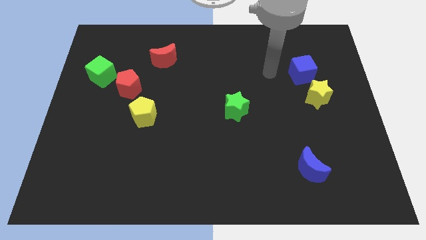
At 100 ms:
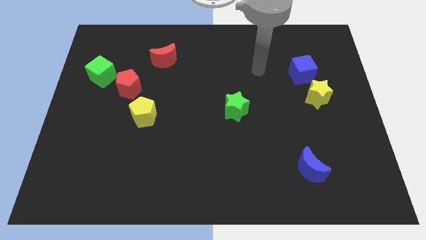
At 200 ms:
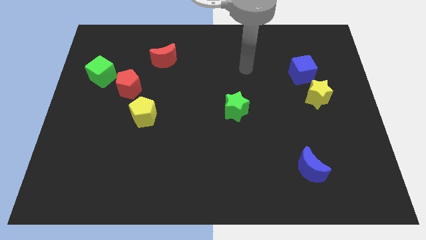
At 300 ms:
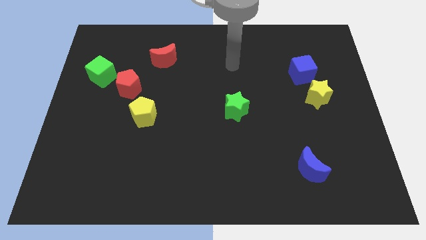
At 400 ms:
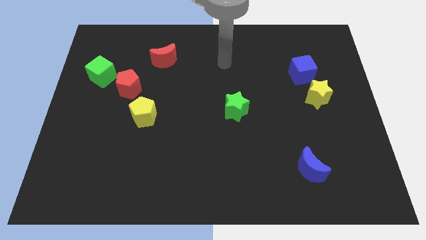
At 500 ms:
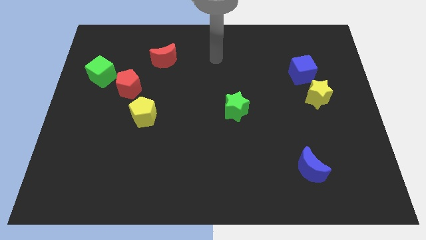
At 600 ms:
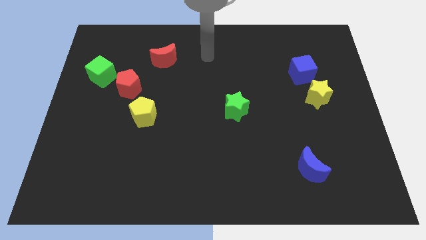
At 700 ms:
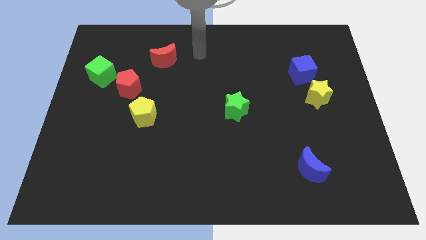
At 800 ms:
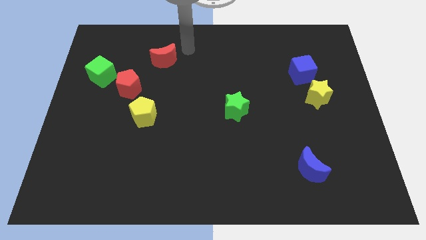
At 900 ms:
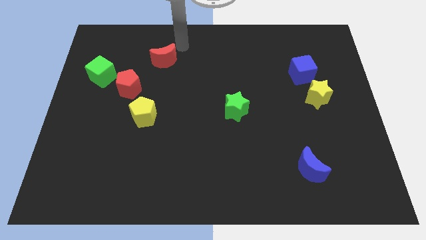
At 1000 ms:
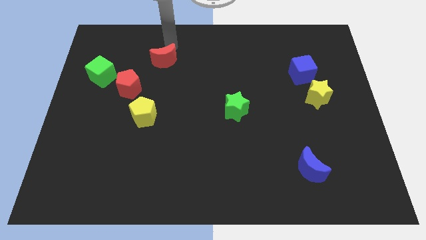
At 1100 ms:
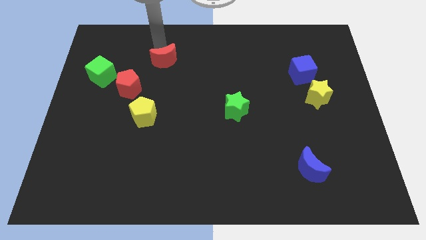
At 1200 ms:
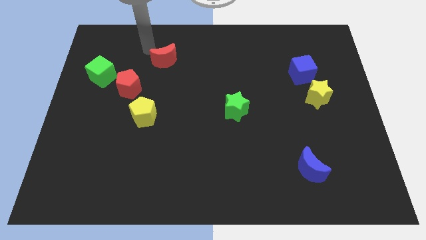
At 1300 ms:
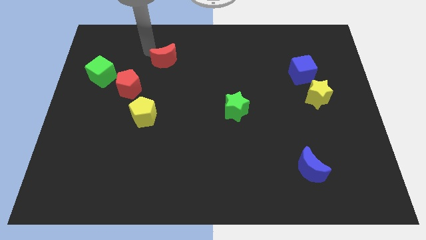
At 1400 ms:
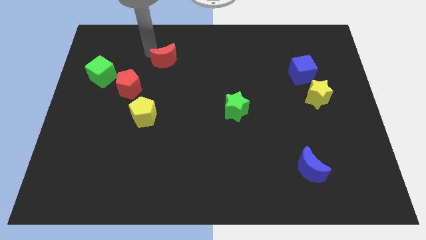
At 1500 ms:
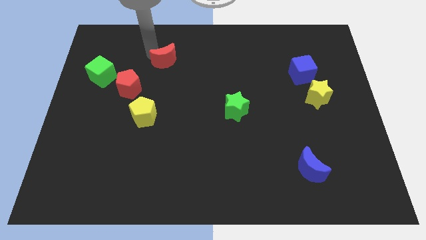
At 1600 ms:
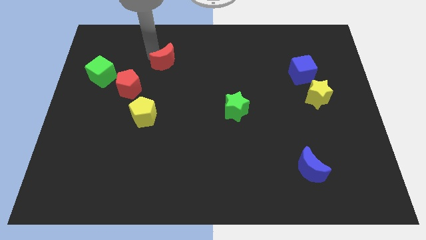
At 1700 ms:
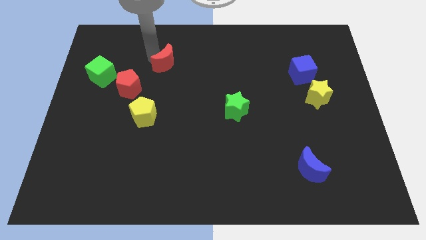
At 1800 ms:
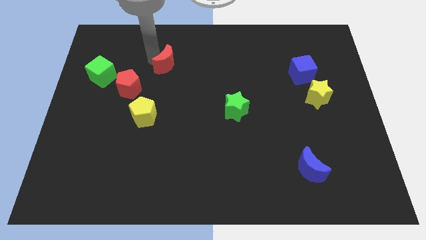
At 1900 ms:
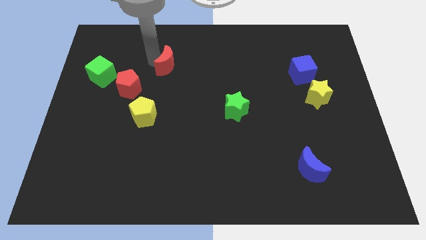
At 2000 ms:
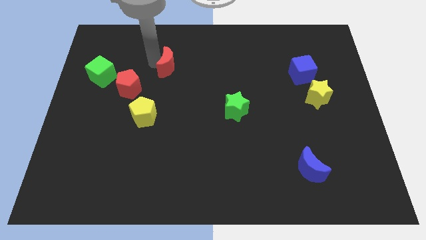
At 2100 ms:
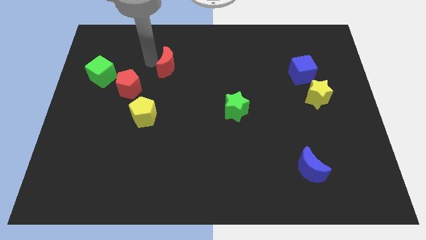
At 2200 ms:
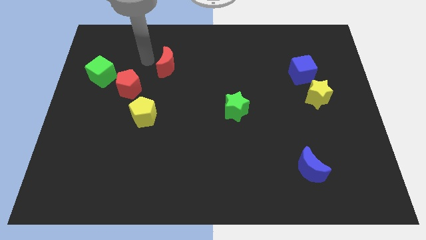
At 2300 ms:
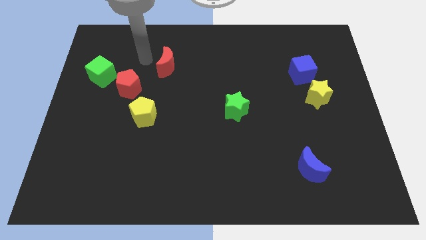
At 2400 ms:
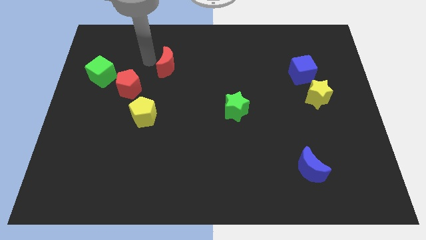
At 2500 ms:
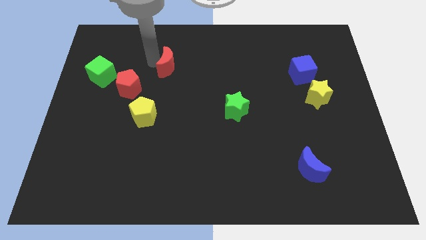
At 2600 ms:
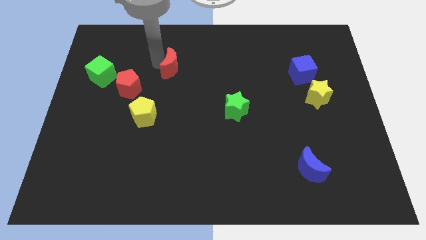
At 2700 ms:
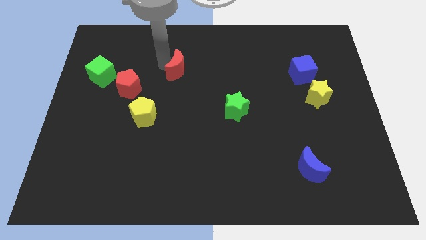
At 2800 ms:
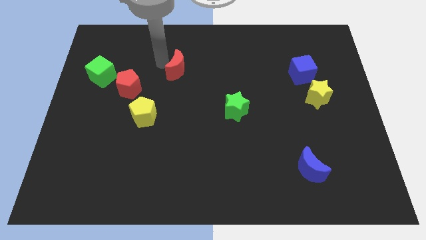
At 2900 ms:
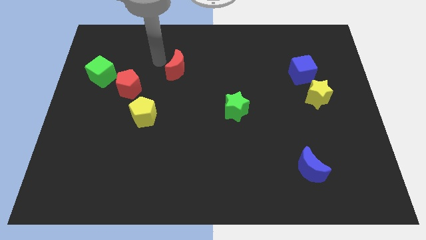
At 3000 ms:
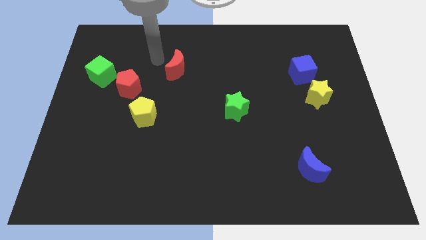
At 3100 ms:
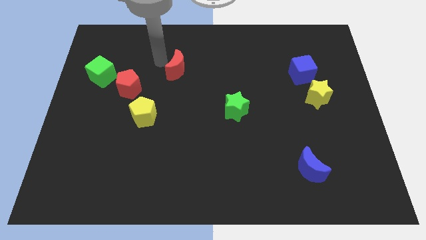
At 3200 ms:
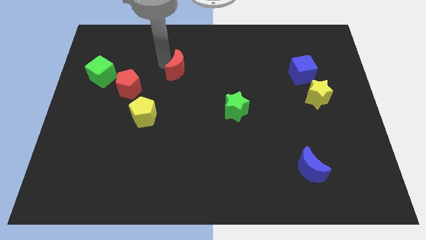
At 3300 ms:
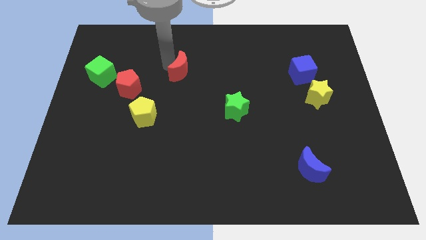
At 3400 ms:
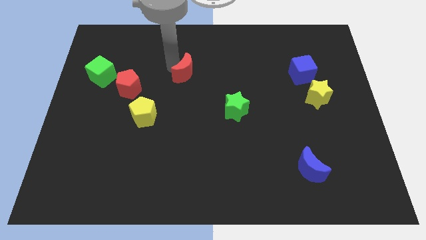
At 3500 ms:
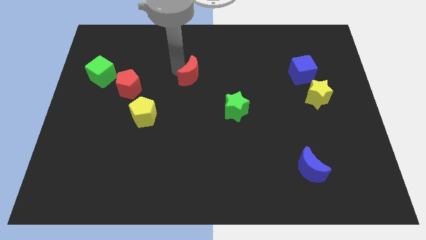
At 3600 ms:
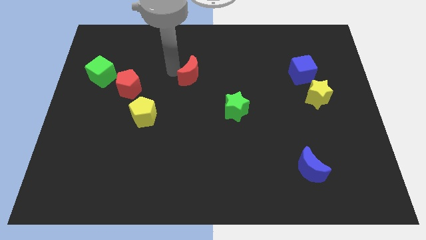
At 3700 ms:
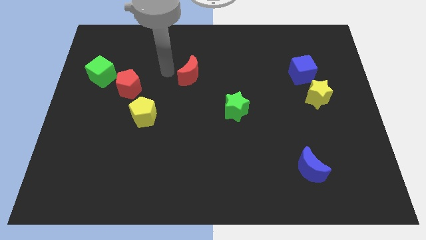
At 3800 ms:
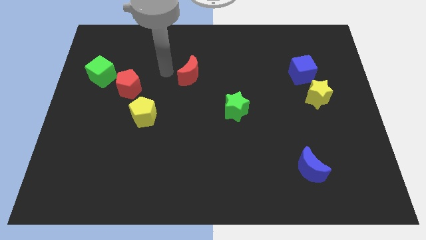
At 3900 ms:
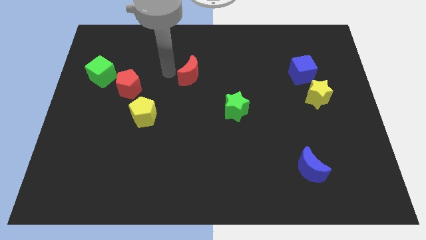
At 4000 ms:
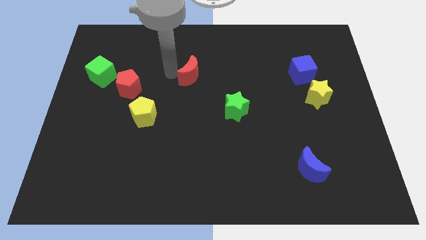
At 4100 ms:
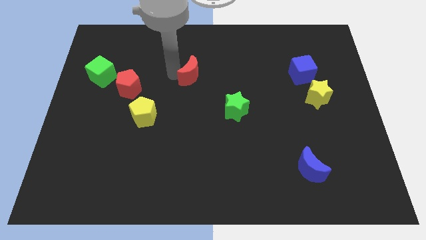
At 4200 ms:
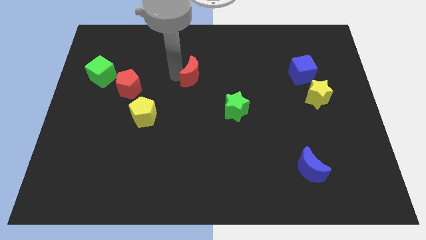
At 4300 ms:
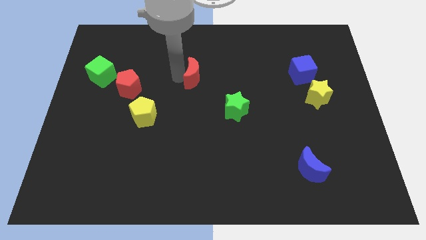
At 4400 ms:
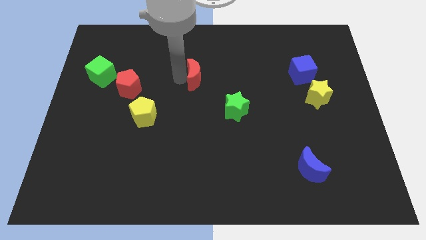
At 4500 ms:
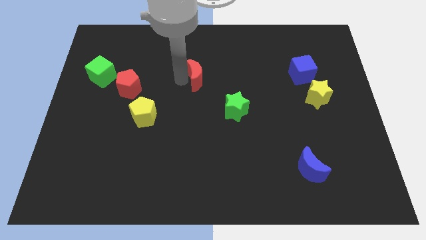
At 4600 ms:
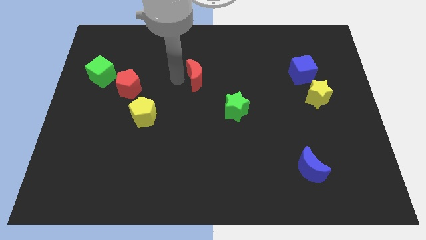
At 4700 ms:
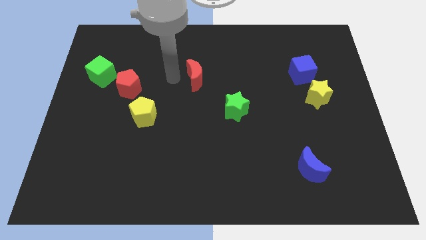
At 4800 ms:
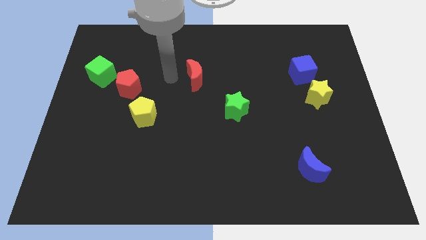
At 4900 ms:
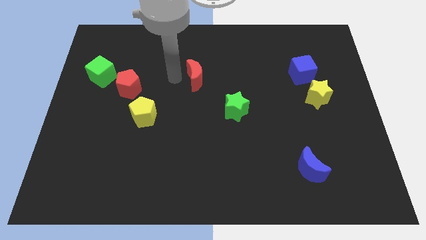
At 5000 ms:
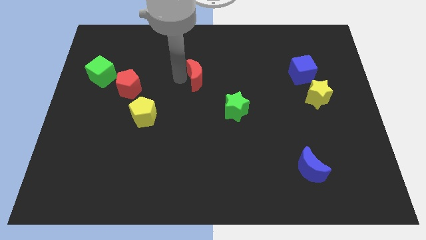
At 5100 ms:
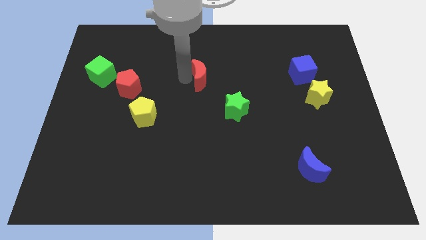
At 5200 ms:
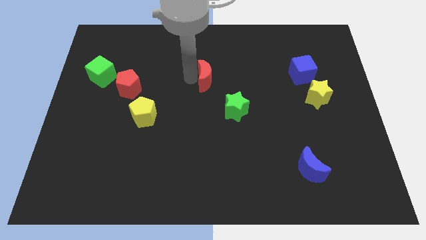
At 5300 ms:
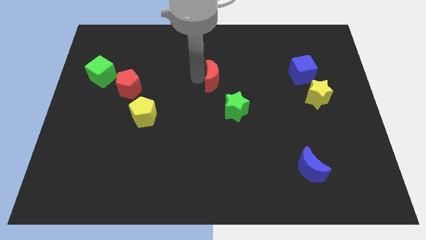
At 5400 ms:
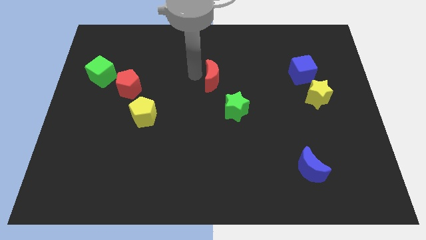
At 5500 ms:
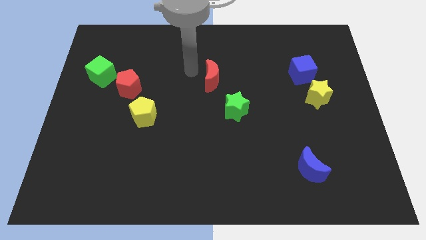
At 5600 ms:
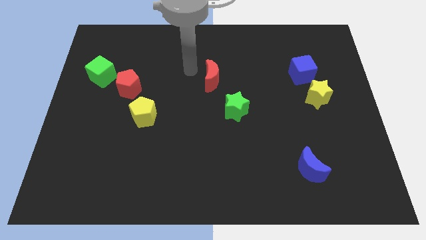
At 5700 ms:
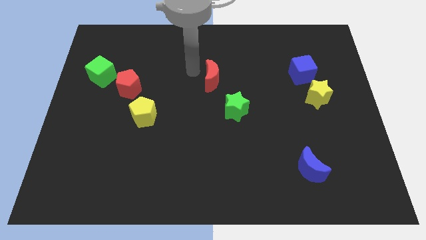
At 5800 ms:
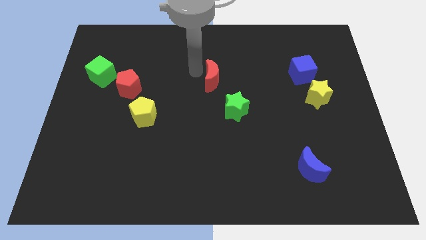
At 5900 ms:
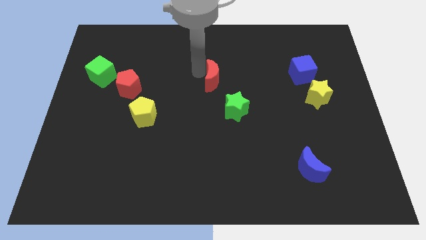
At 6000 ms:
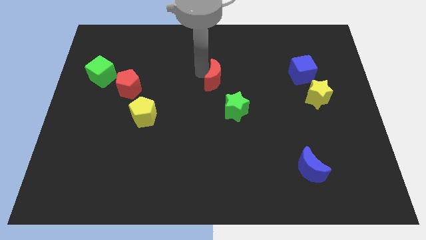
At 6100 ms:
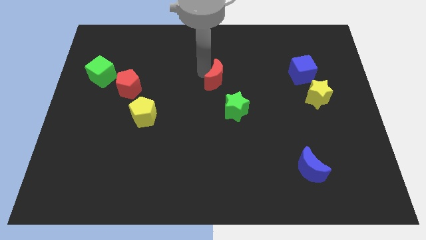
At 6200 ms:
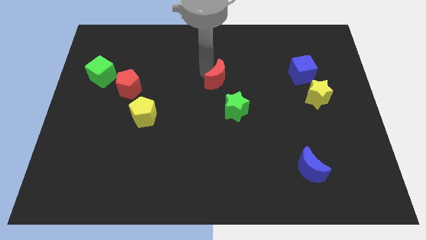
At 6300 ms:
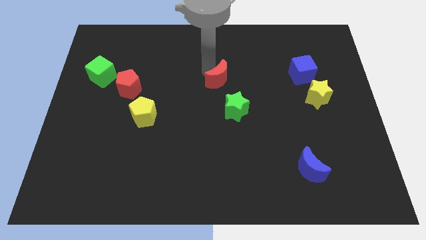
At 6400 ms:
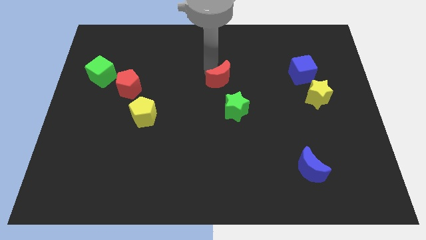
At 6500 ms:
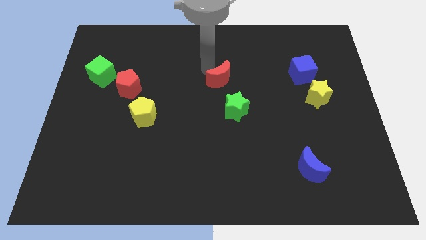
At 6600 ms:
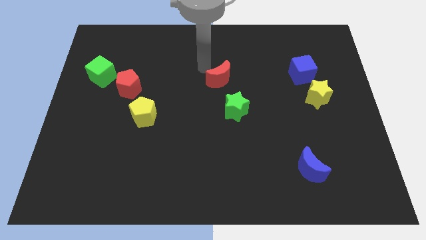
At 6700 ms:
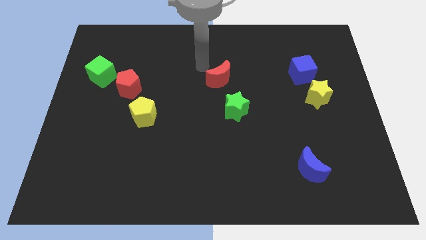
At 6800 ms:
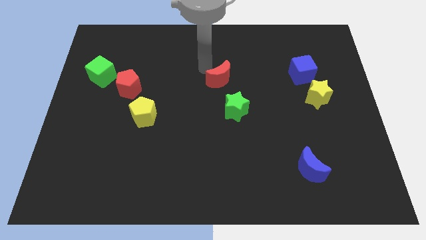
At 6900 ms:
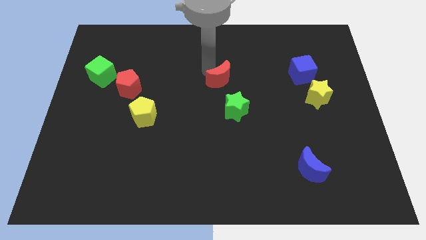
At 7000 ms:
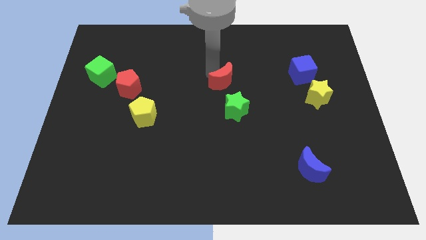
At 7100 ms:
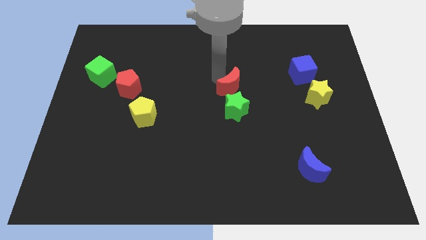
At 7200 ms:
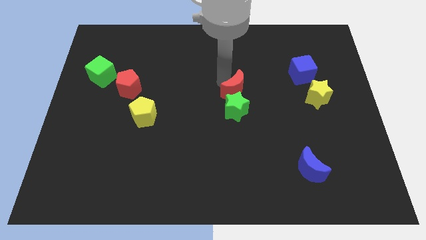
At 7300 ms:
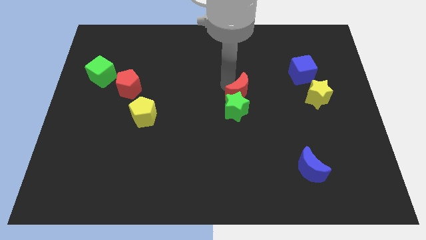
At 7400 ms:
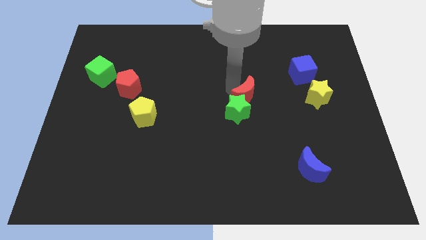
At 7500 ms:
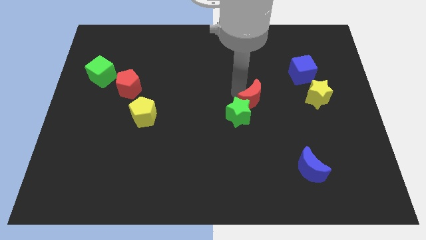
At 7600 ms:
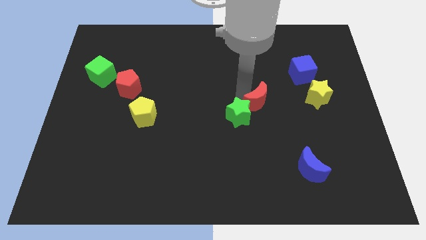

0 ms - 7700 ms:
move the red moon just right of the green star
